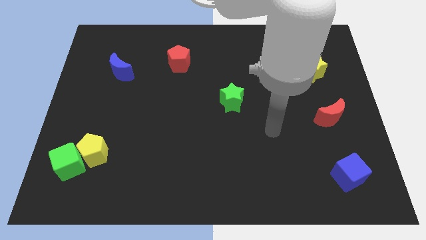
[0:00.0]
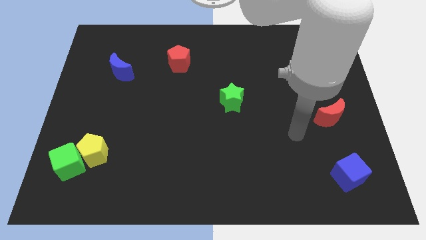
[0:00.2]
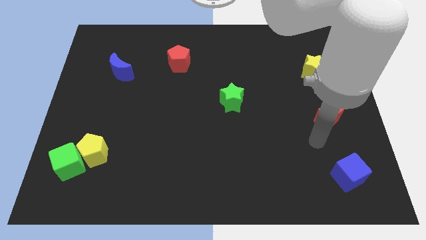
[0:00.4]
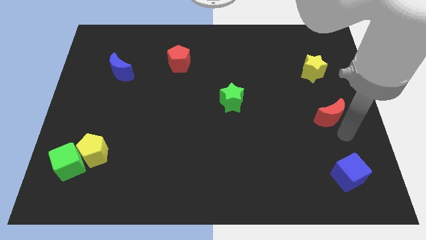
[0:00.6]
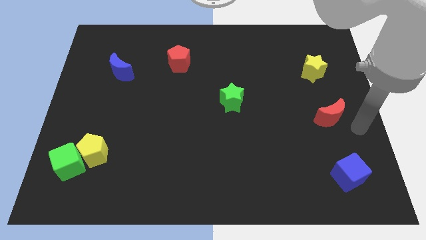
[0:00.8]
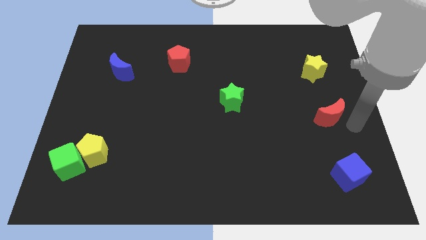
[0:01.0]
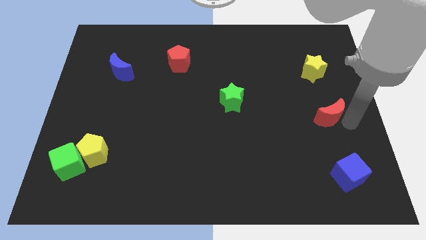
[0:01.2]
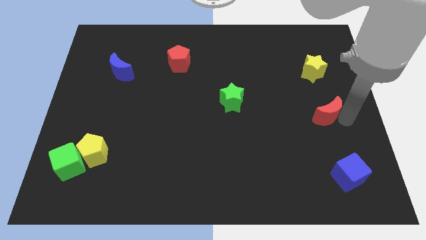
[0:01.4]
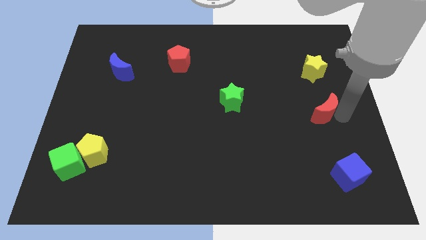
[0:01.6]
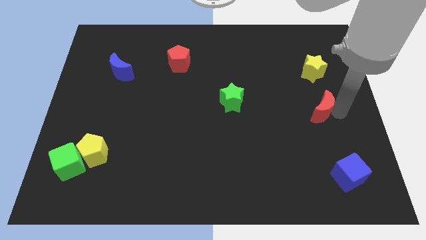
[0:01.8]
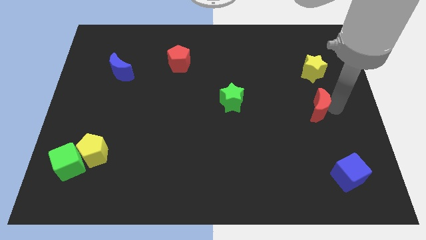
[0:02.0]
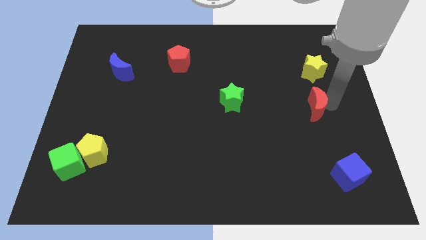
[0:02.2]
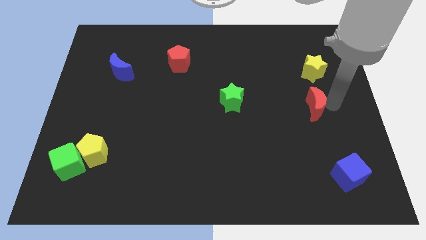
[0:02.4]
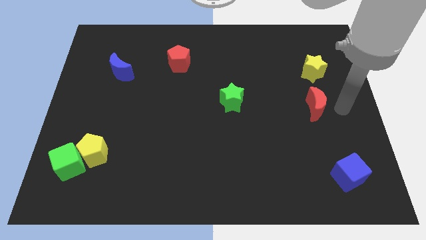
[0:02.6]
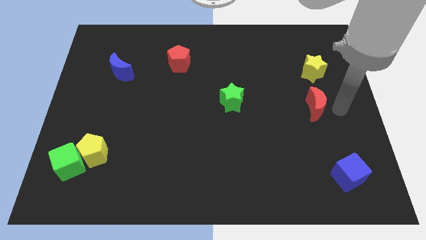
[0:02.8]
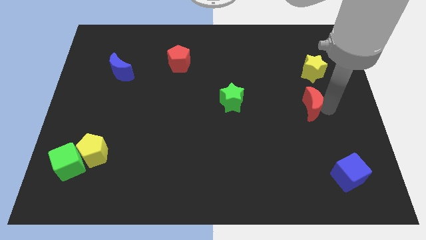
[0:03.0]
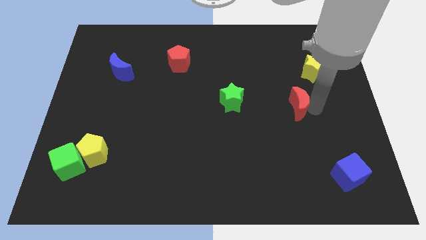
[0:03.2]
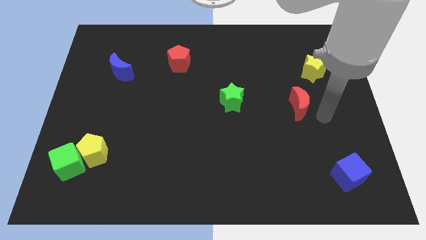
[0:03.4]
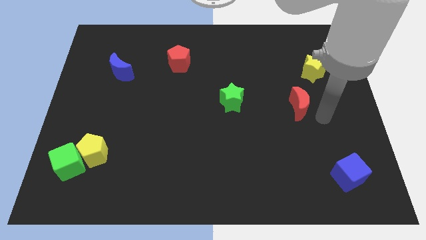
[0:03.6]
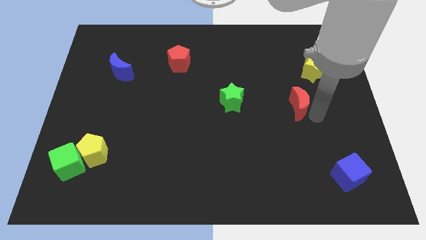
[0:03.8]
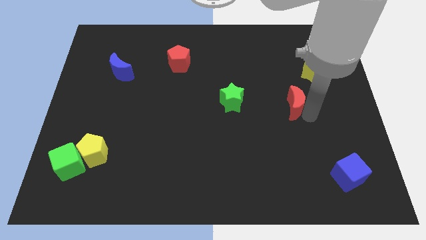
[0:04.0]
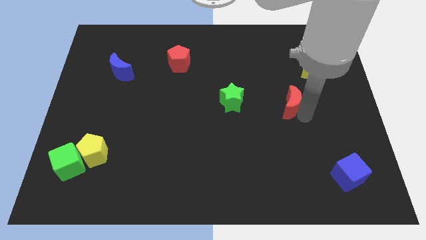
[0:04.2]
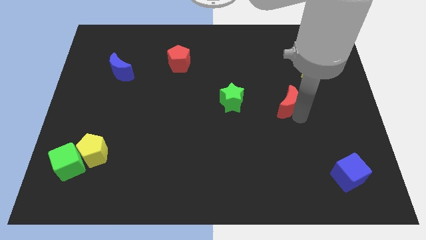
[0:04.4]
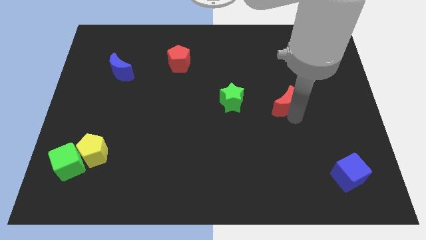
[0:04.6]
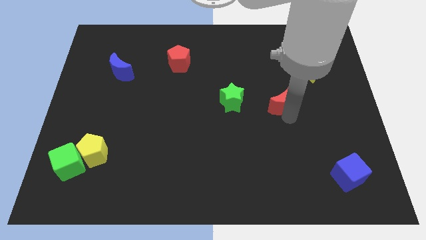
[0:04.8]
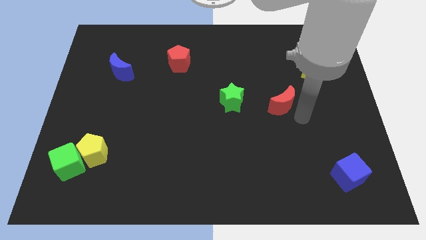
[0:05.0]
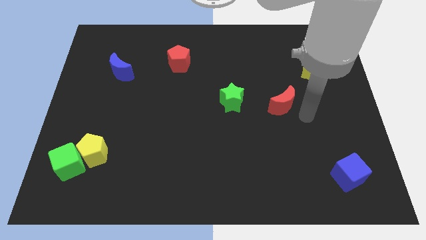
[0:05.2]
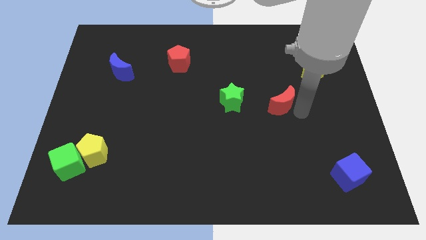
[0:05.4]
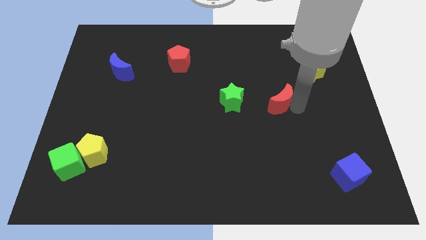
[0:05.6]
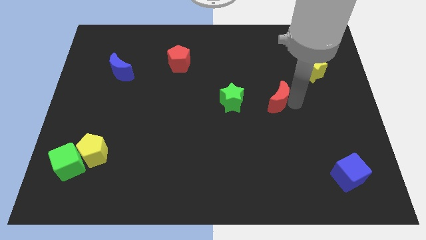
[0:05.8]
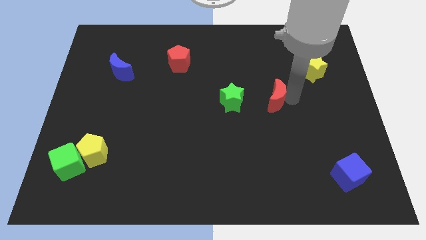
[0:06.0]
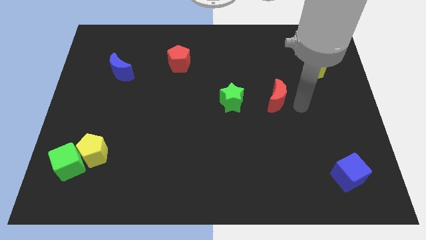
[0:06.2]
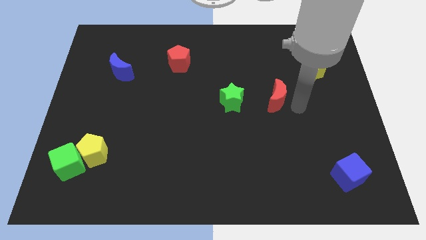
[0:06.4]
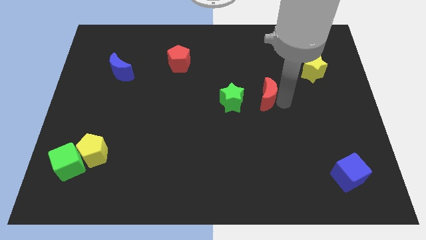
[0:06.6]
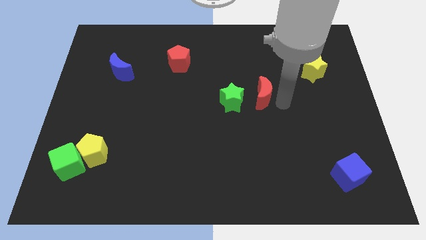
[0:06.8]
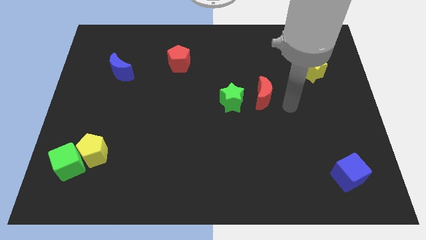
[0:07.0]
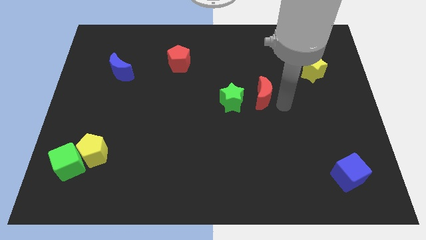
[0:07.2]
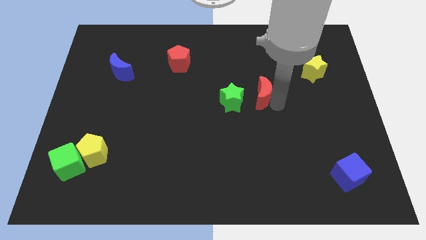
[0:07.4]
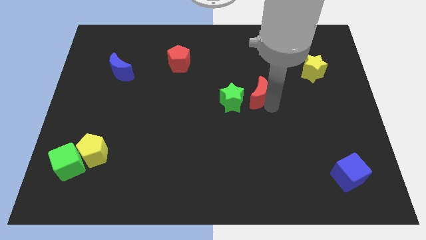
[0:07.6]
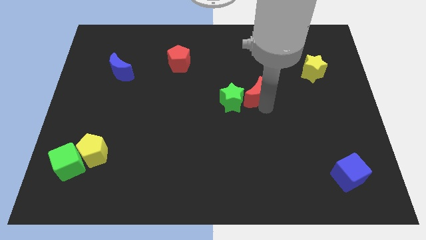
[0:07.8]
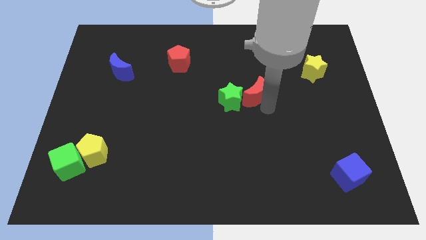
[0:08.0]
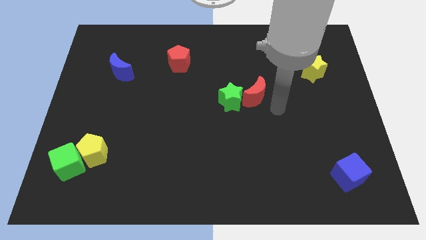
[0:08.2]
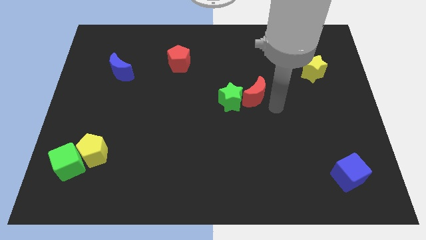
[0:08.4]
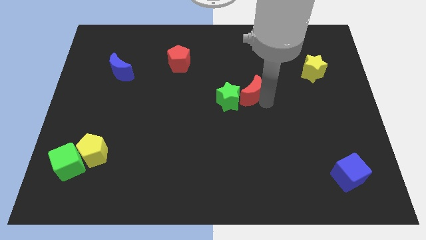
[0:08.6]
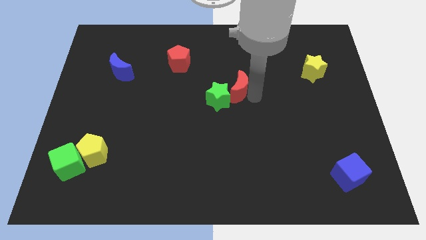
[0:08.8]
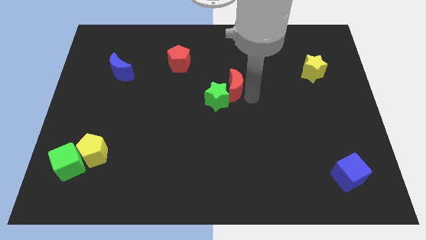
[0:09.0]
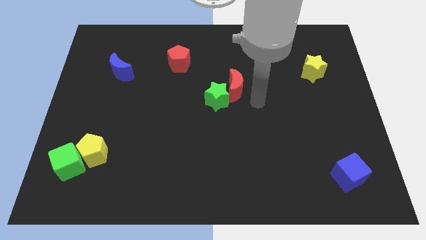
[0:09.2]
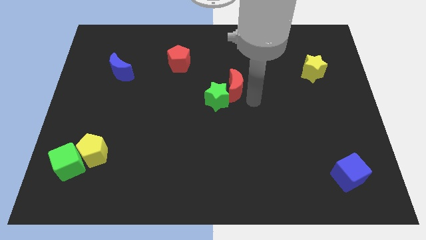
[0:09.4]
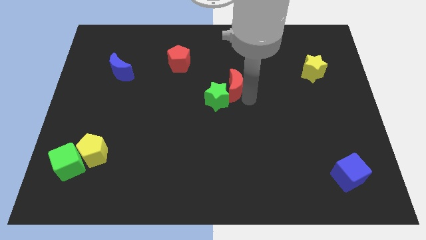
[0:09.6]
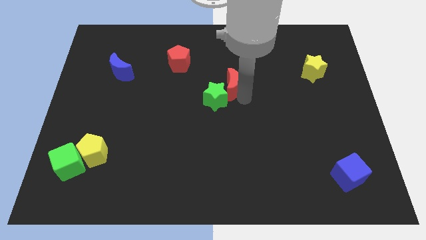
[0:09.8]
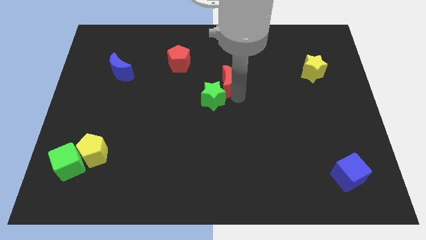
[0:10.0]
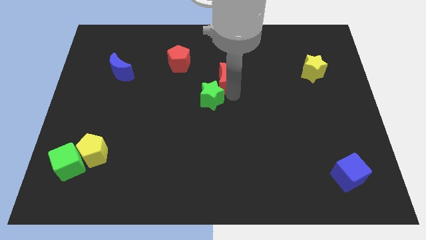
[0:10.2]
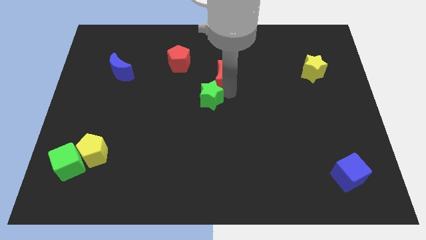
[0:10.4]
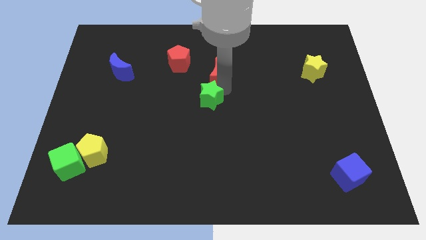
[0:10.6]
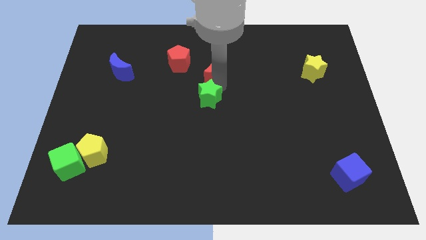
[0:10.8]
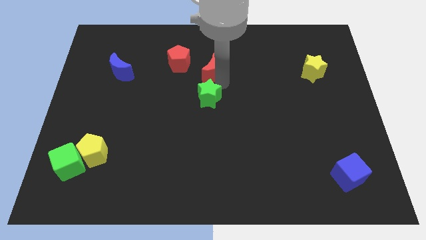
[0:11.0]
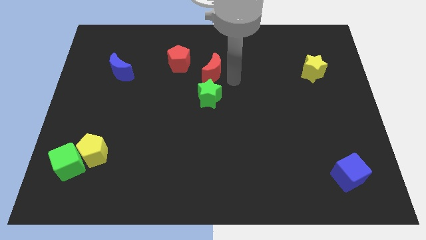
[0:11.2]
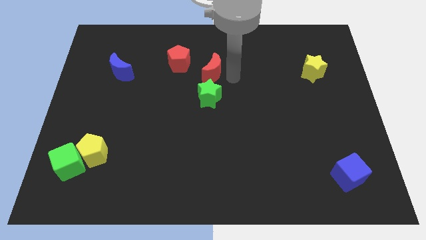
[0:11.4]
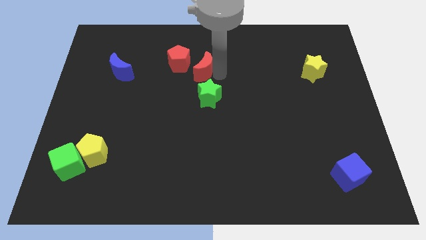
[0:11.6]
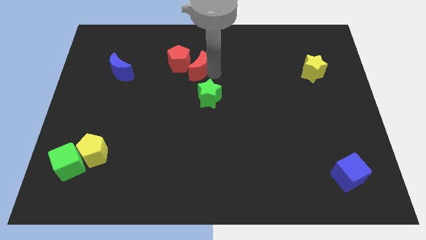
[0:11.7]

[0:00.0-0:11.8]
put the red moon next to the red pentagon

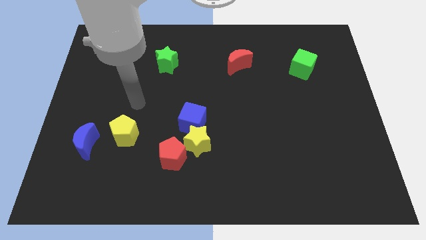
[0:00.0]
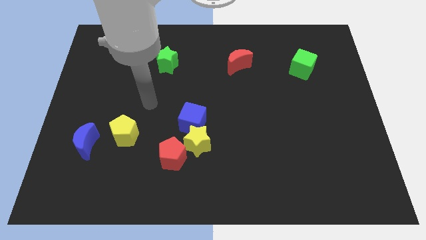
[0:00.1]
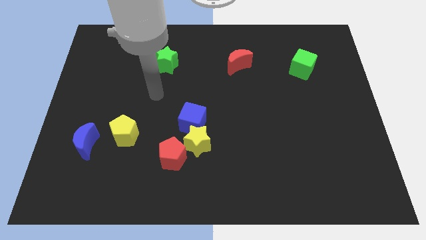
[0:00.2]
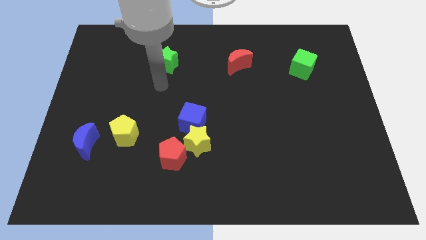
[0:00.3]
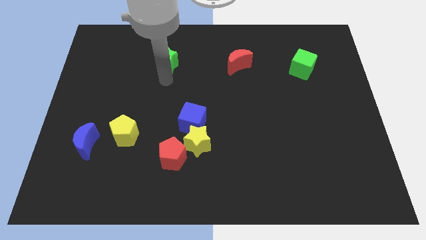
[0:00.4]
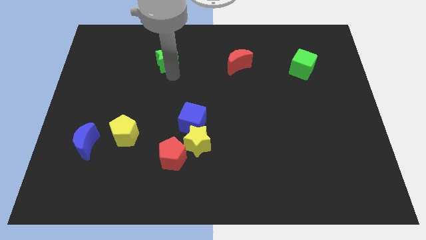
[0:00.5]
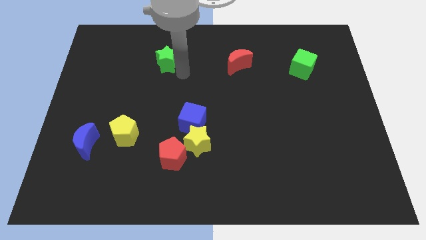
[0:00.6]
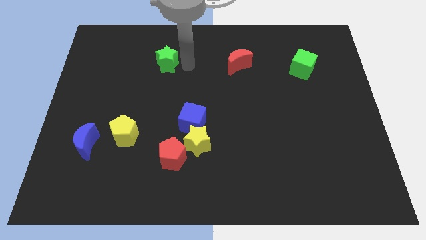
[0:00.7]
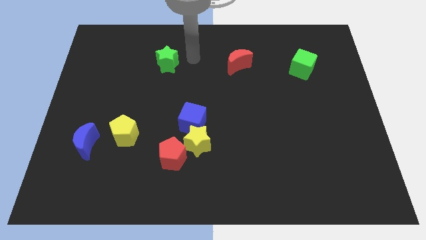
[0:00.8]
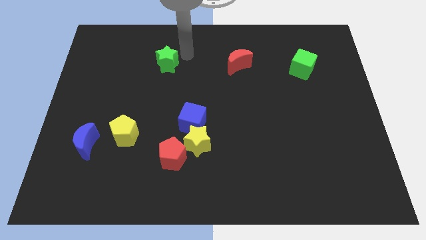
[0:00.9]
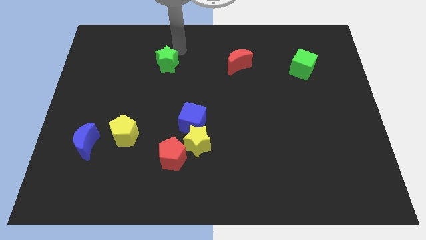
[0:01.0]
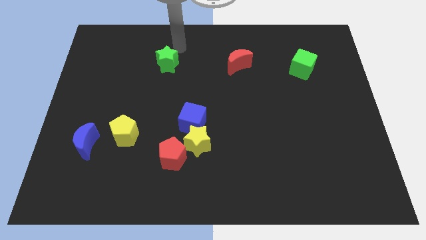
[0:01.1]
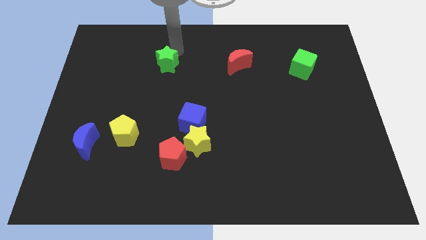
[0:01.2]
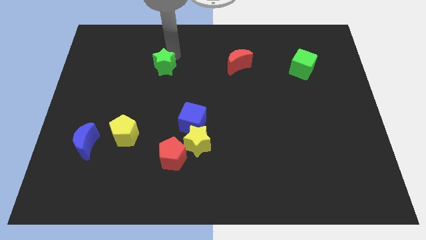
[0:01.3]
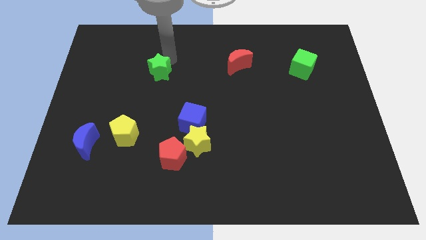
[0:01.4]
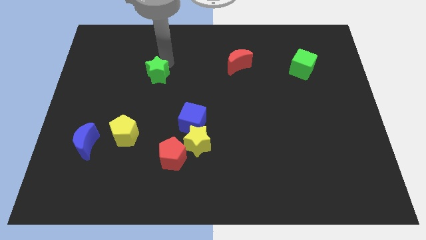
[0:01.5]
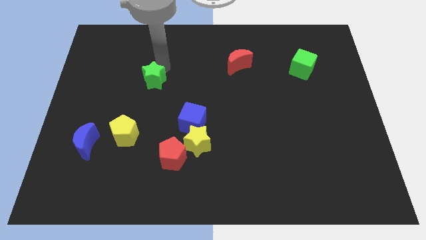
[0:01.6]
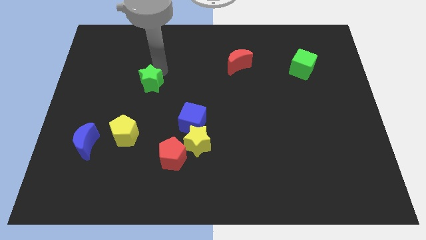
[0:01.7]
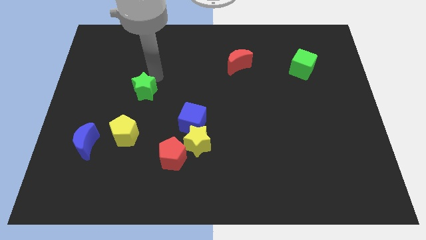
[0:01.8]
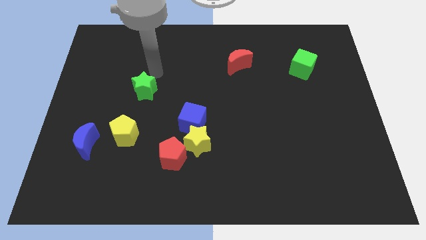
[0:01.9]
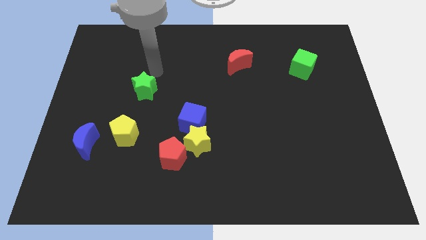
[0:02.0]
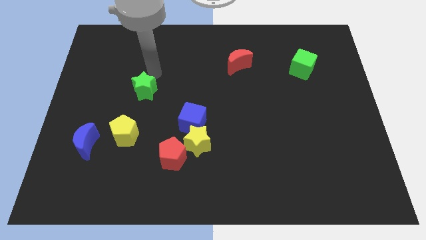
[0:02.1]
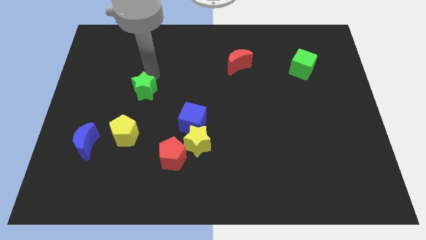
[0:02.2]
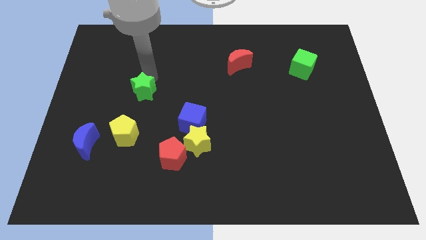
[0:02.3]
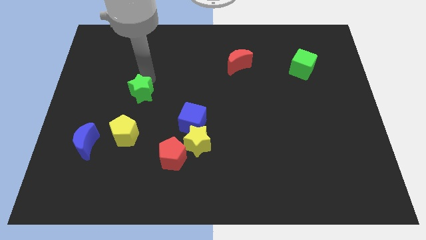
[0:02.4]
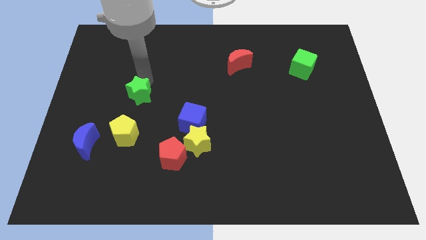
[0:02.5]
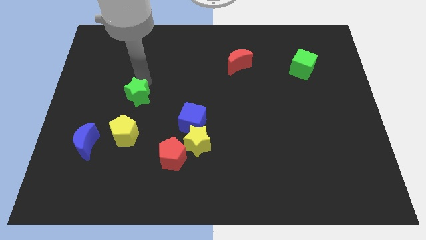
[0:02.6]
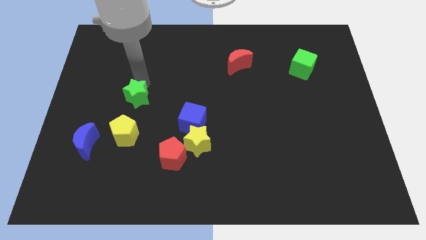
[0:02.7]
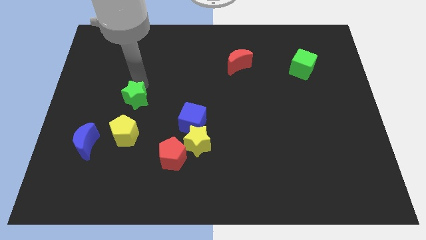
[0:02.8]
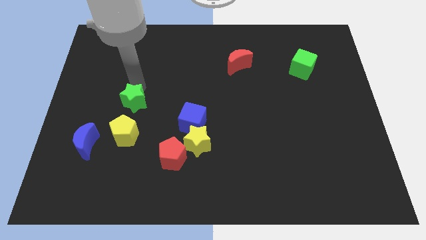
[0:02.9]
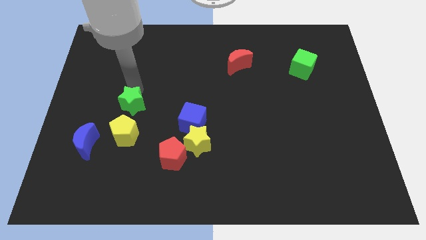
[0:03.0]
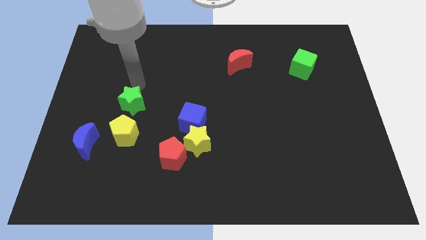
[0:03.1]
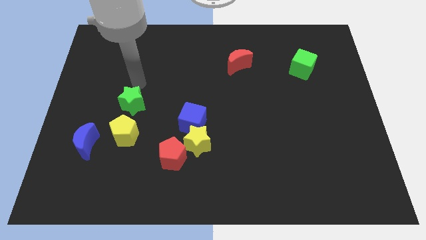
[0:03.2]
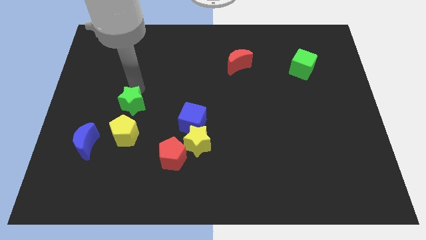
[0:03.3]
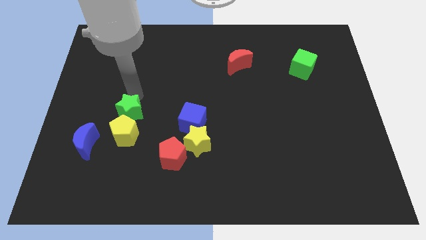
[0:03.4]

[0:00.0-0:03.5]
move the green star to the yellow pentagon
